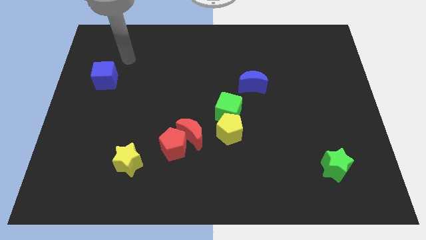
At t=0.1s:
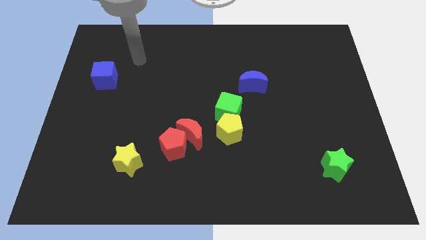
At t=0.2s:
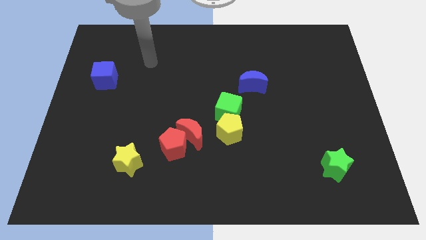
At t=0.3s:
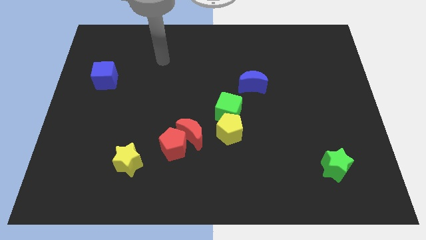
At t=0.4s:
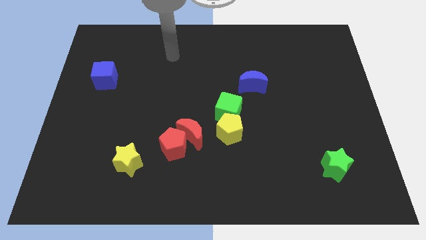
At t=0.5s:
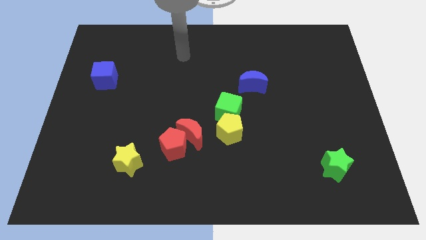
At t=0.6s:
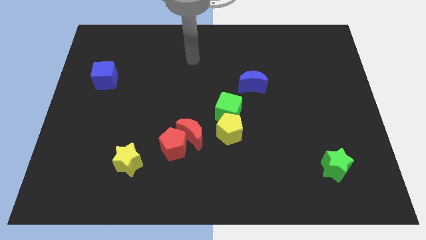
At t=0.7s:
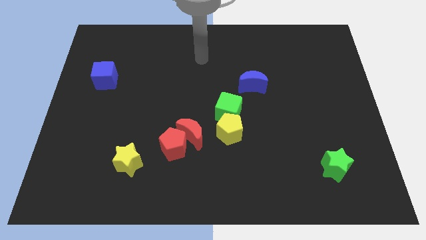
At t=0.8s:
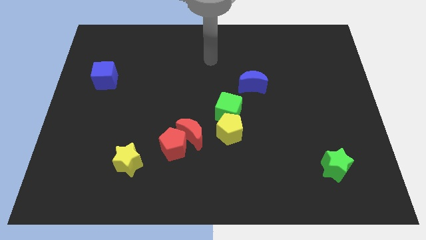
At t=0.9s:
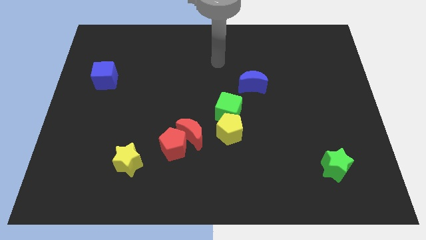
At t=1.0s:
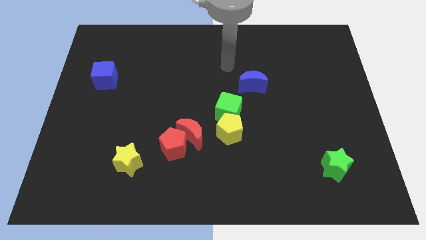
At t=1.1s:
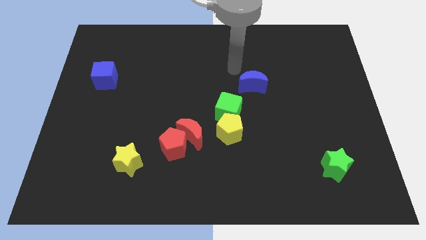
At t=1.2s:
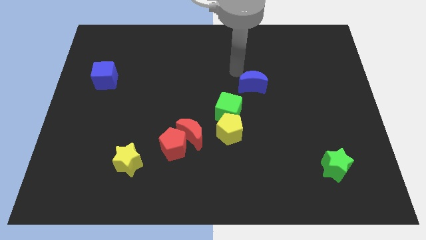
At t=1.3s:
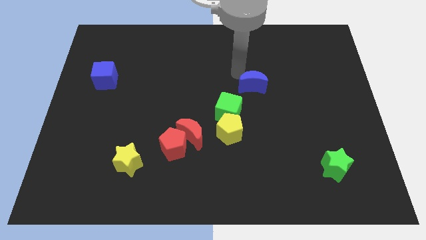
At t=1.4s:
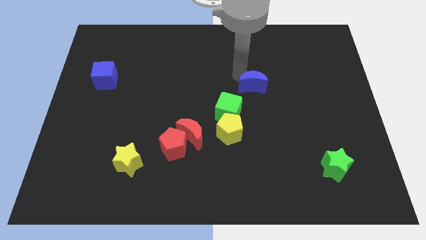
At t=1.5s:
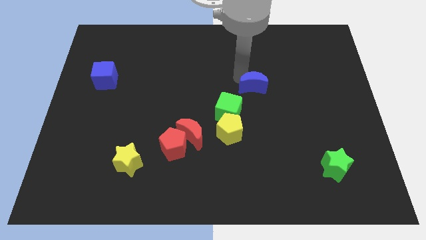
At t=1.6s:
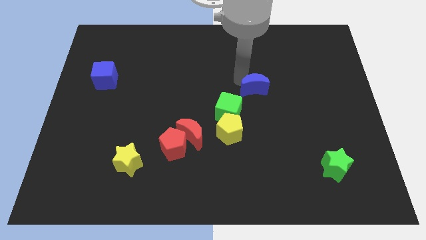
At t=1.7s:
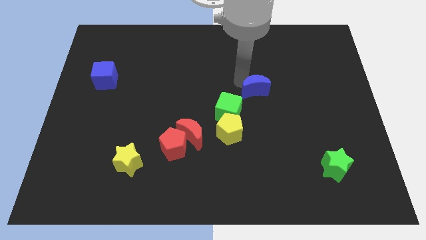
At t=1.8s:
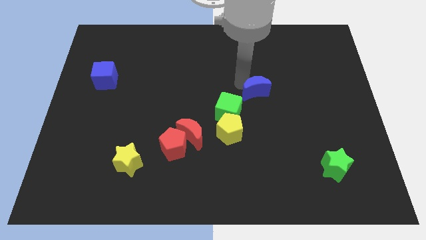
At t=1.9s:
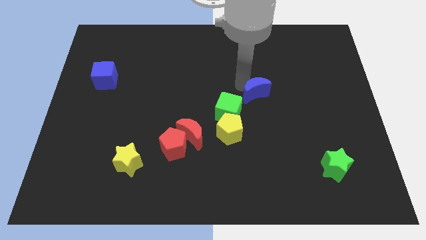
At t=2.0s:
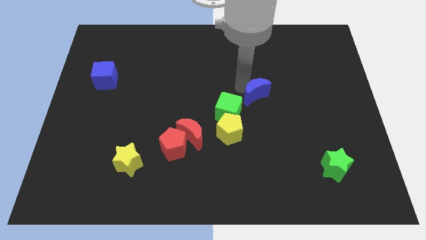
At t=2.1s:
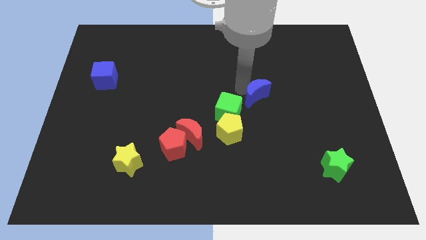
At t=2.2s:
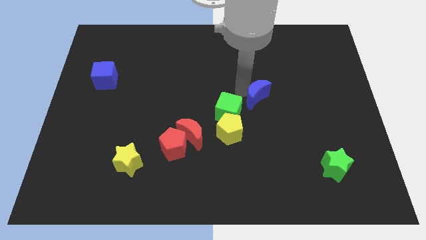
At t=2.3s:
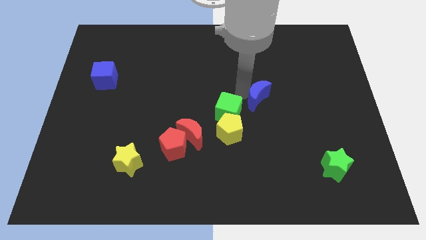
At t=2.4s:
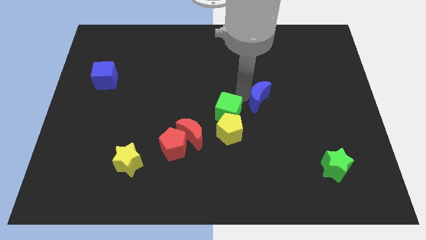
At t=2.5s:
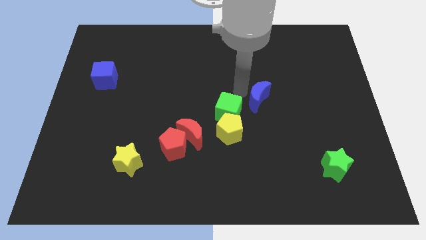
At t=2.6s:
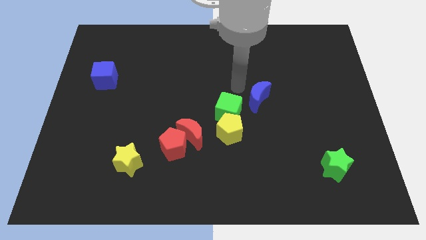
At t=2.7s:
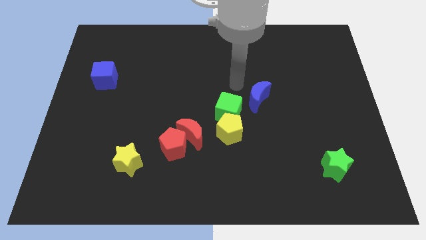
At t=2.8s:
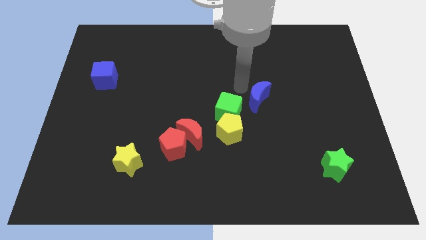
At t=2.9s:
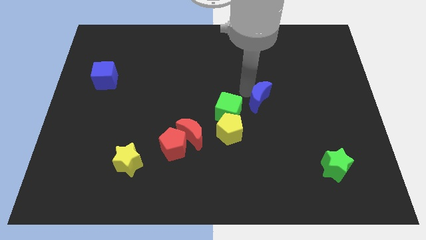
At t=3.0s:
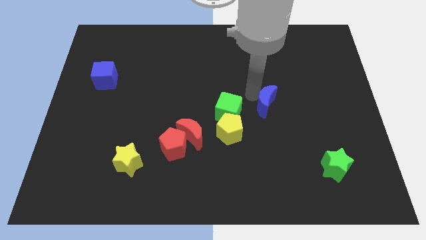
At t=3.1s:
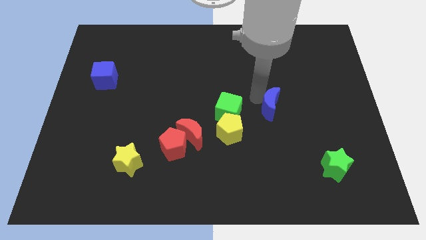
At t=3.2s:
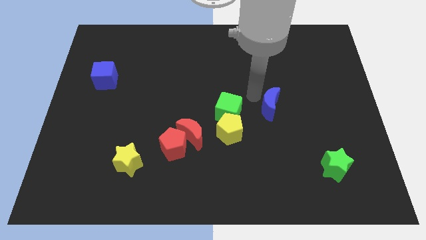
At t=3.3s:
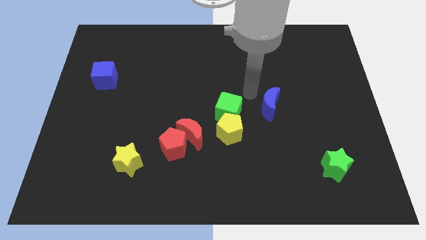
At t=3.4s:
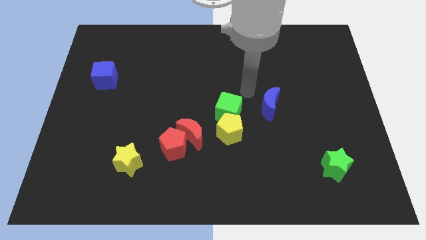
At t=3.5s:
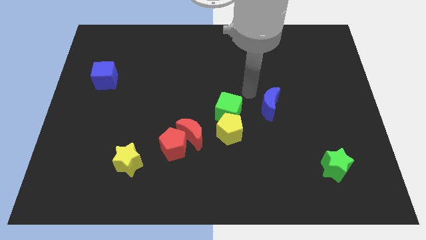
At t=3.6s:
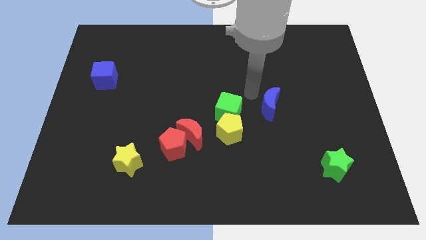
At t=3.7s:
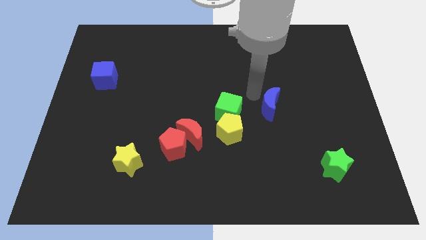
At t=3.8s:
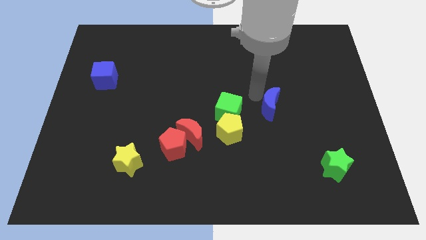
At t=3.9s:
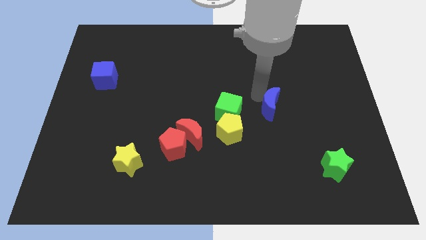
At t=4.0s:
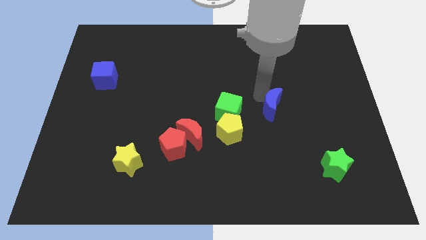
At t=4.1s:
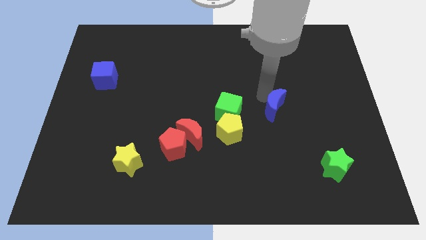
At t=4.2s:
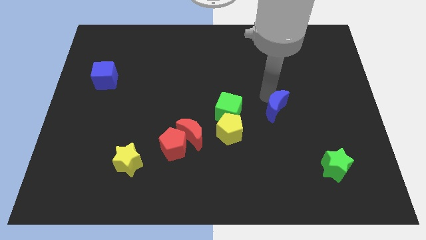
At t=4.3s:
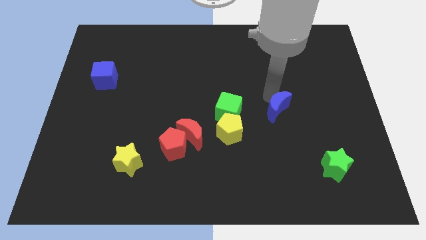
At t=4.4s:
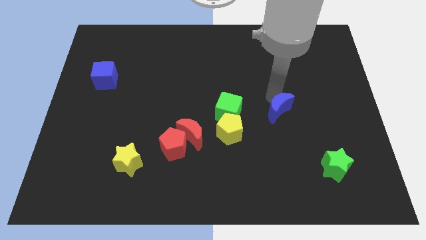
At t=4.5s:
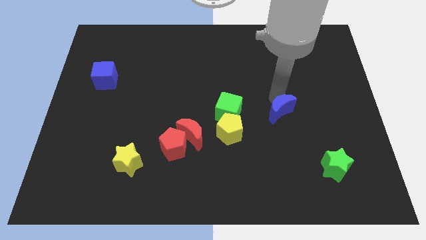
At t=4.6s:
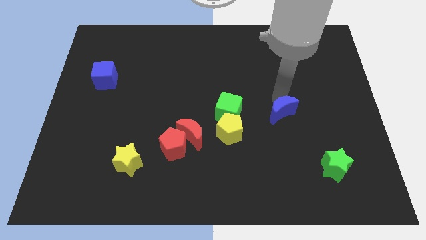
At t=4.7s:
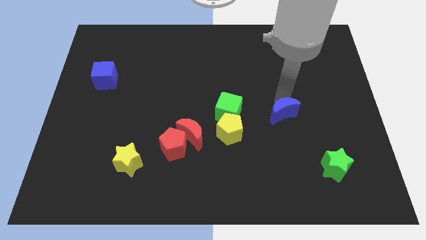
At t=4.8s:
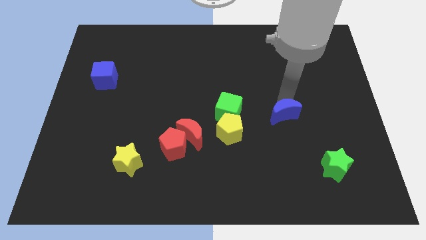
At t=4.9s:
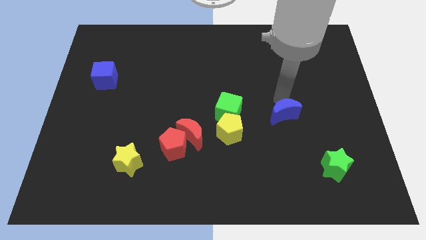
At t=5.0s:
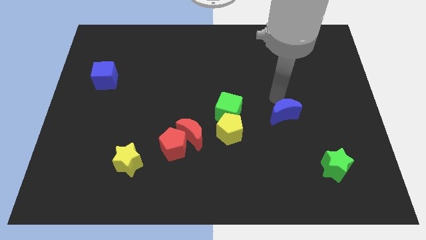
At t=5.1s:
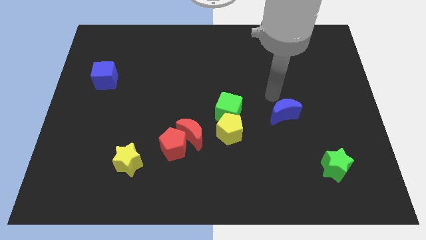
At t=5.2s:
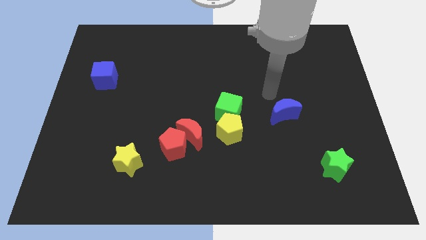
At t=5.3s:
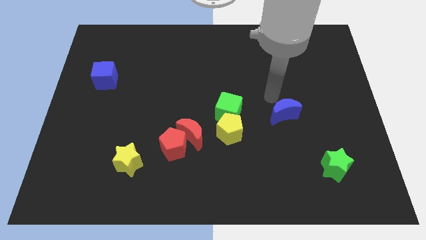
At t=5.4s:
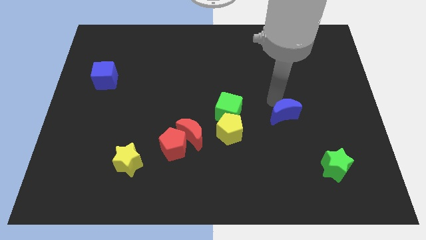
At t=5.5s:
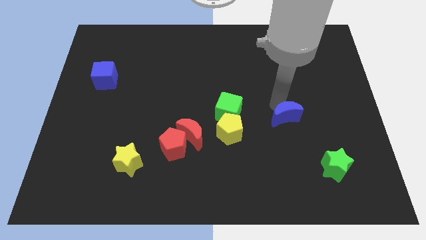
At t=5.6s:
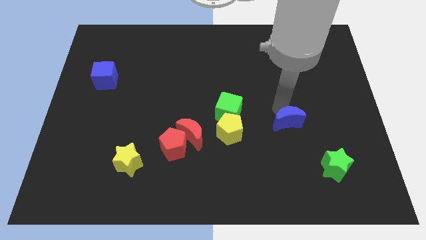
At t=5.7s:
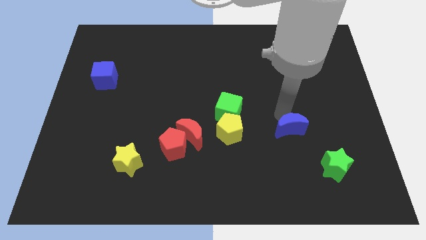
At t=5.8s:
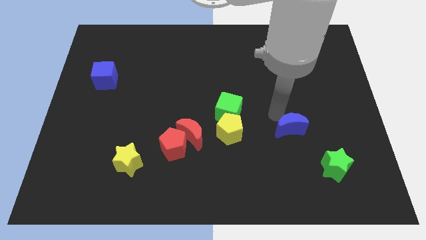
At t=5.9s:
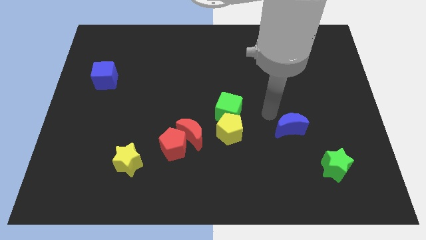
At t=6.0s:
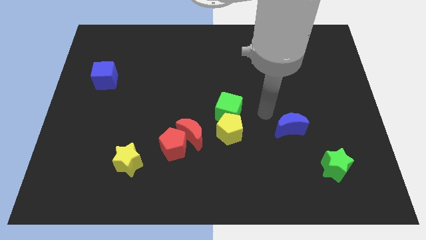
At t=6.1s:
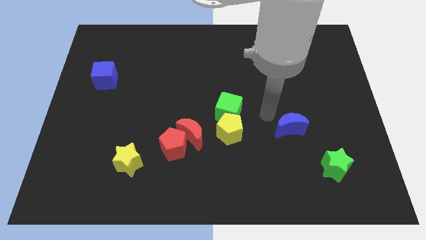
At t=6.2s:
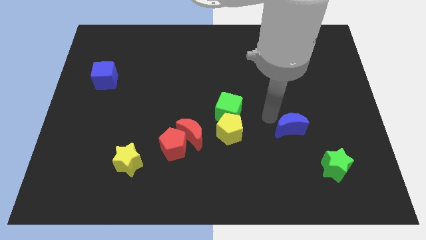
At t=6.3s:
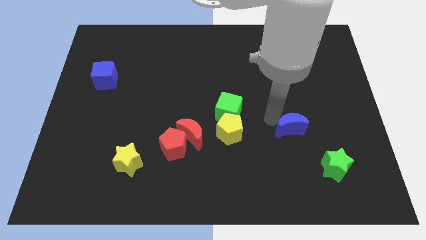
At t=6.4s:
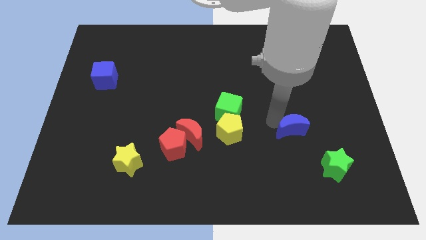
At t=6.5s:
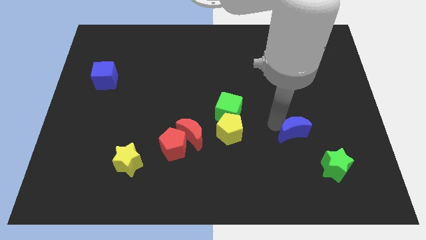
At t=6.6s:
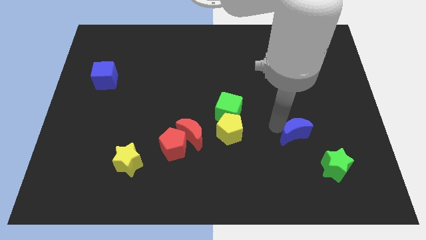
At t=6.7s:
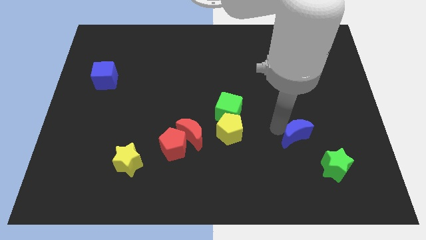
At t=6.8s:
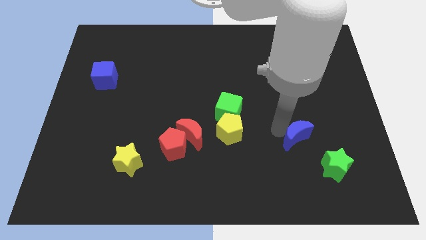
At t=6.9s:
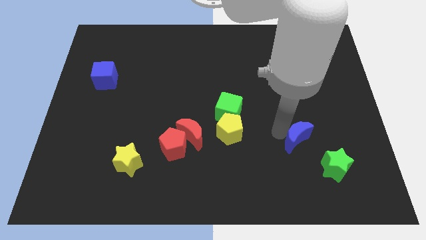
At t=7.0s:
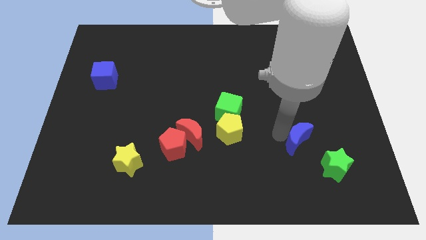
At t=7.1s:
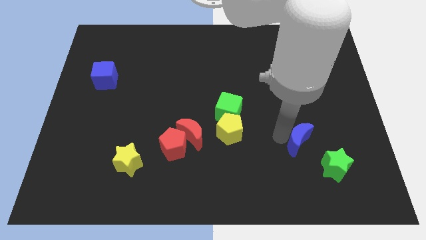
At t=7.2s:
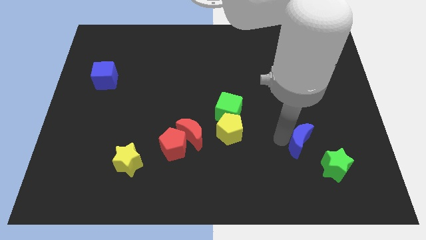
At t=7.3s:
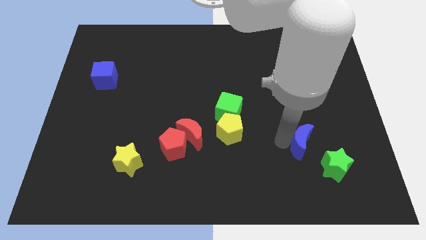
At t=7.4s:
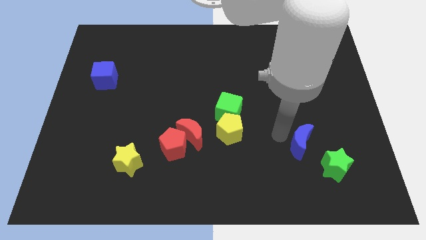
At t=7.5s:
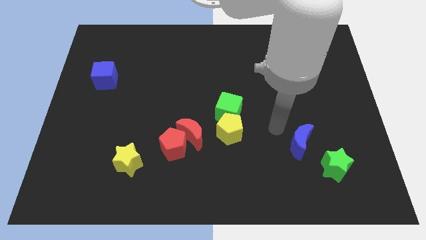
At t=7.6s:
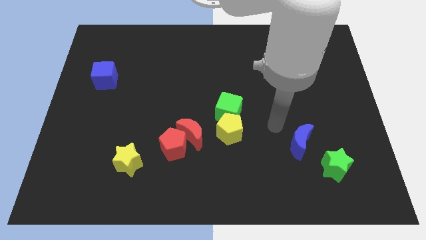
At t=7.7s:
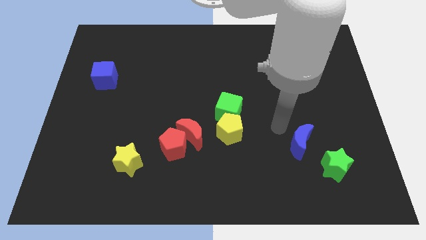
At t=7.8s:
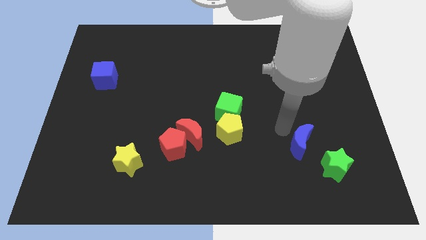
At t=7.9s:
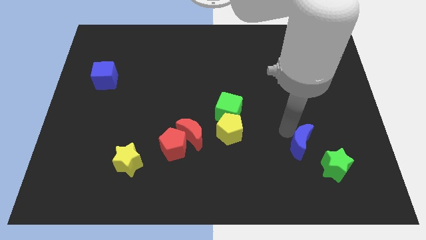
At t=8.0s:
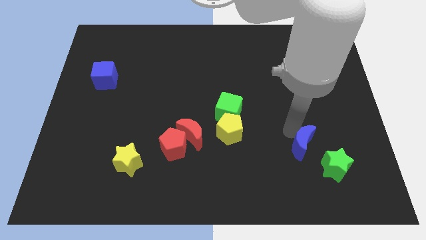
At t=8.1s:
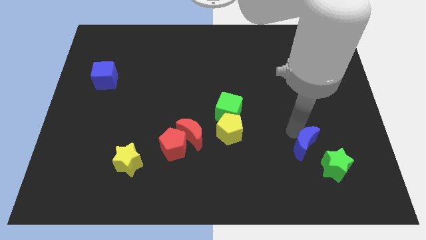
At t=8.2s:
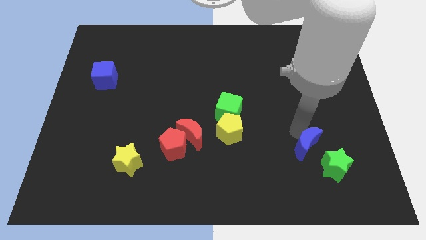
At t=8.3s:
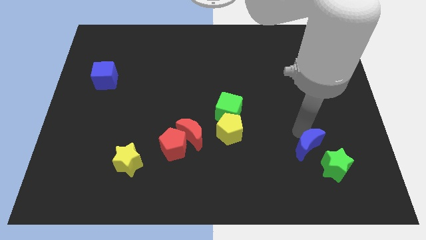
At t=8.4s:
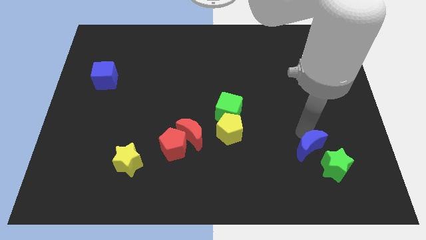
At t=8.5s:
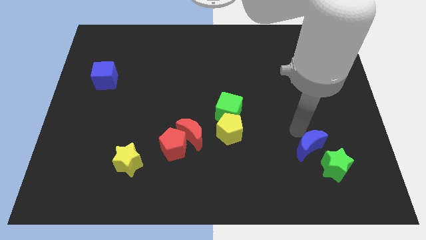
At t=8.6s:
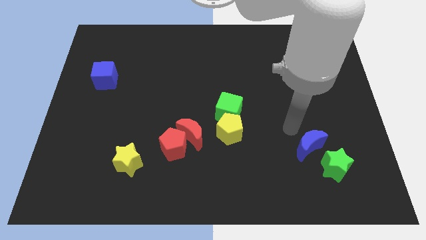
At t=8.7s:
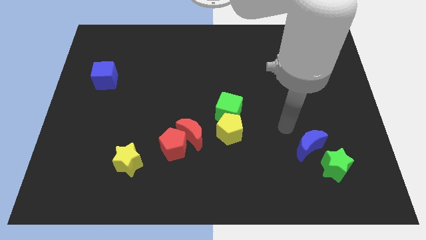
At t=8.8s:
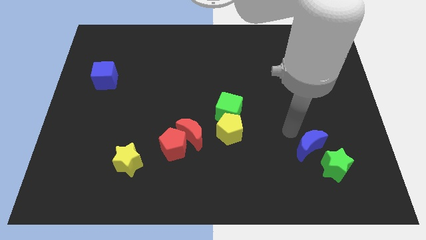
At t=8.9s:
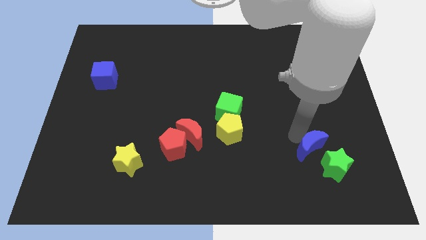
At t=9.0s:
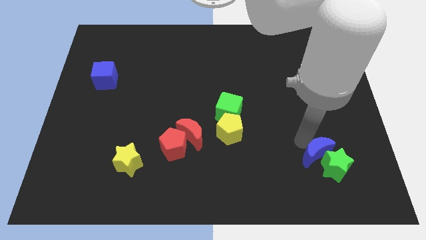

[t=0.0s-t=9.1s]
move the blue moon close to the green star
